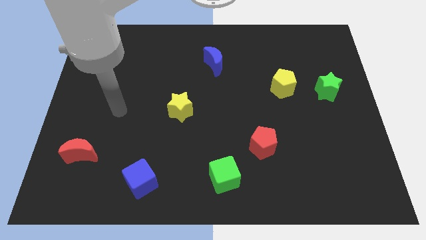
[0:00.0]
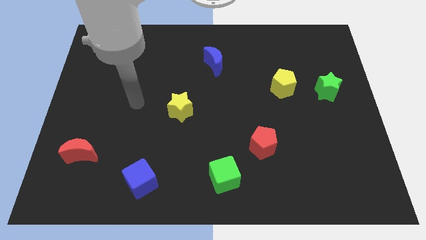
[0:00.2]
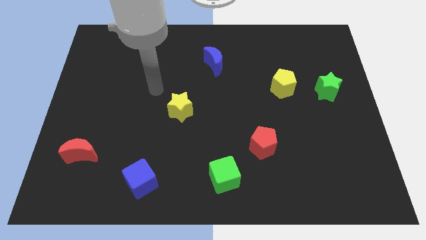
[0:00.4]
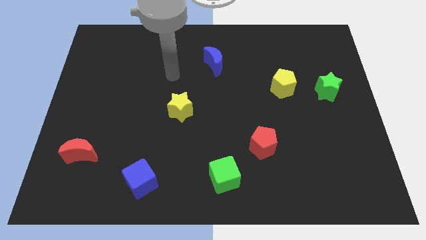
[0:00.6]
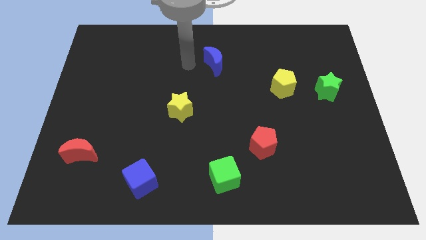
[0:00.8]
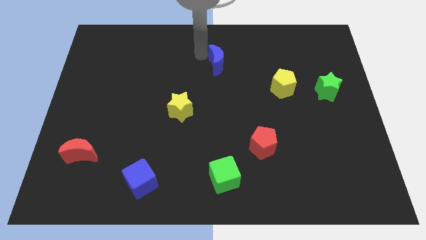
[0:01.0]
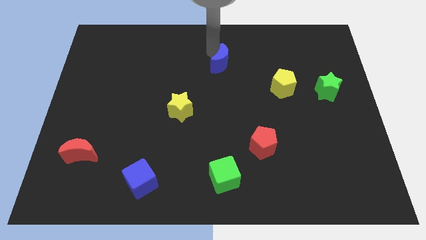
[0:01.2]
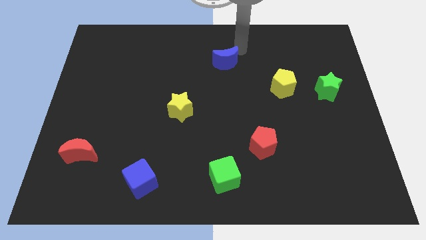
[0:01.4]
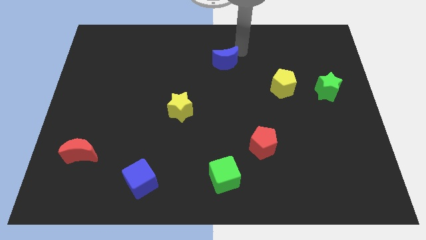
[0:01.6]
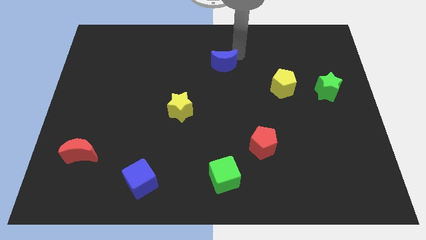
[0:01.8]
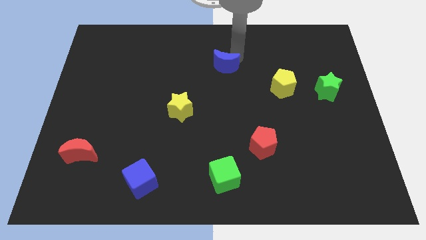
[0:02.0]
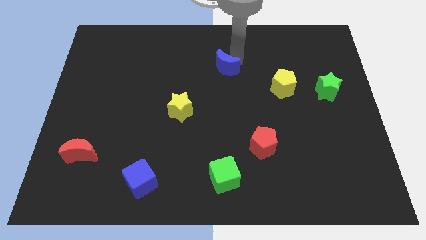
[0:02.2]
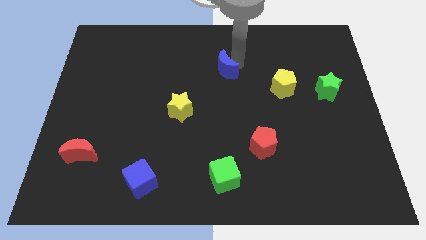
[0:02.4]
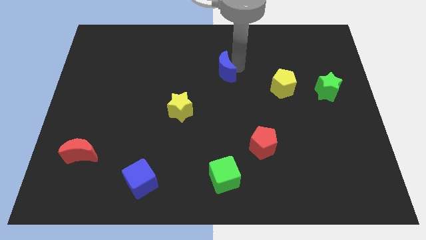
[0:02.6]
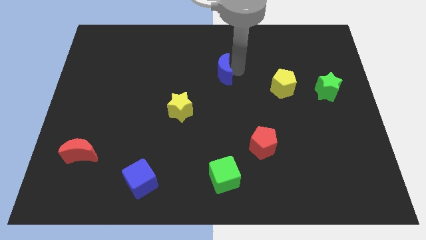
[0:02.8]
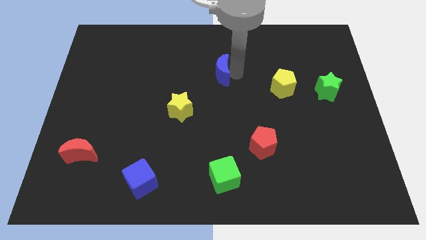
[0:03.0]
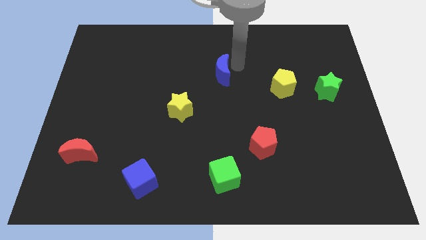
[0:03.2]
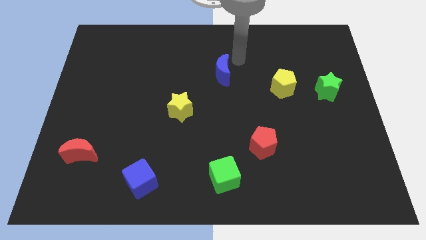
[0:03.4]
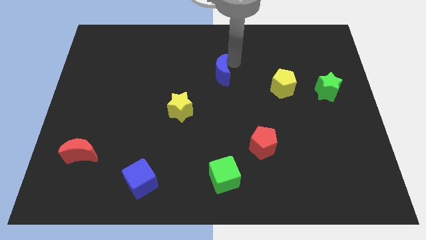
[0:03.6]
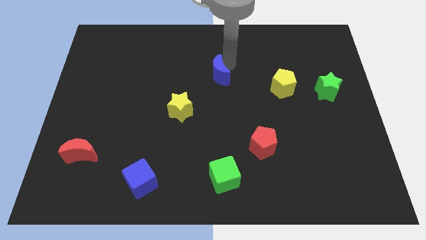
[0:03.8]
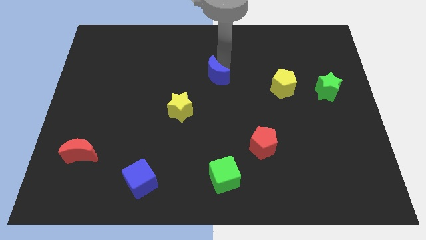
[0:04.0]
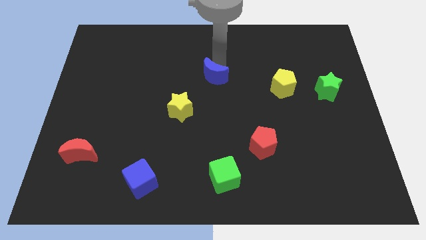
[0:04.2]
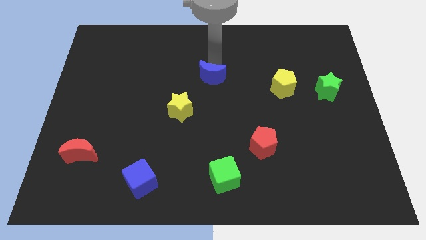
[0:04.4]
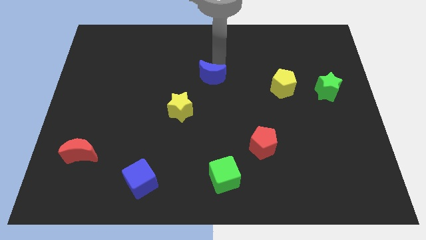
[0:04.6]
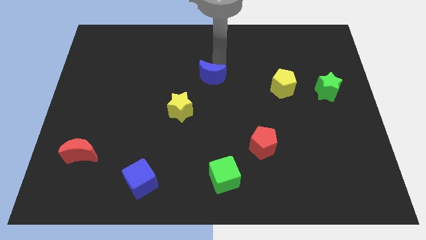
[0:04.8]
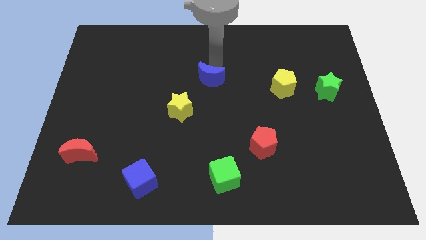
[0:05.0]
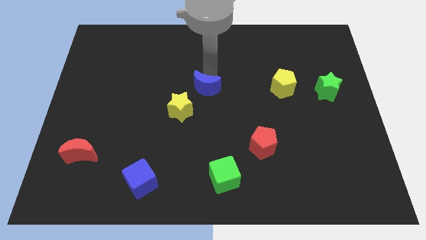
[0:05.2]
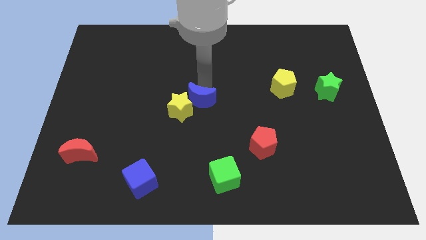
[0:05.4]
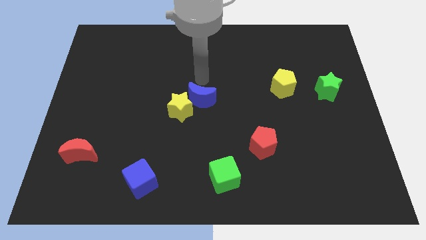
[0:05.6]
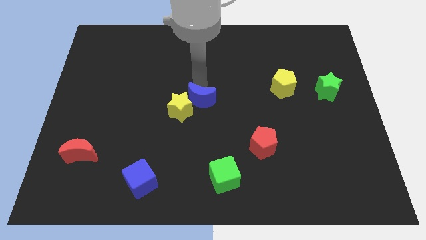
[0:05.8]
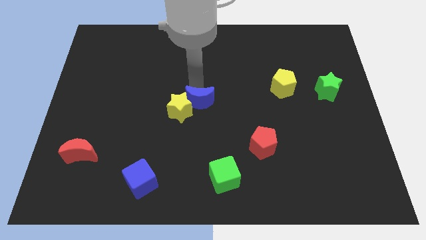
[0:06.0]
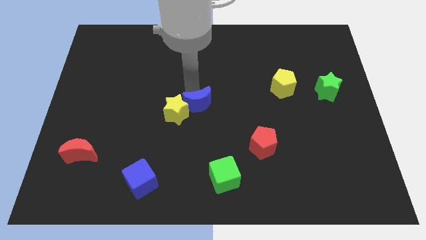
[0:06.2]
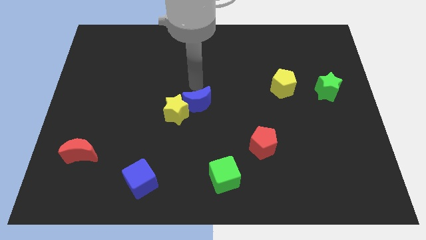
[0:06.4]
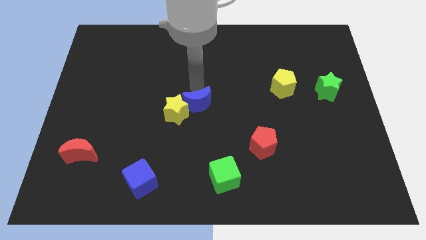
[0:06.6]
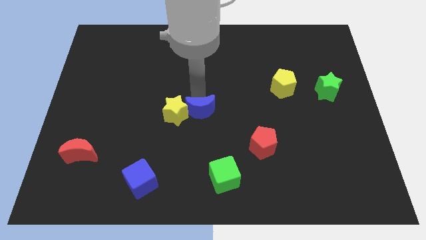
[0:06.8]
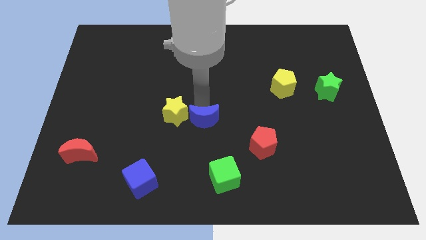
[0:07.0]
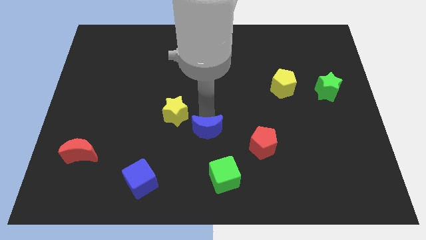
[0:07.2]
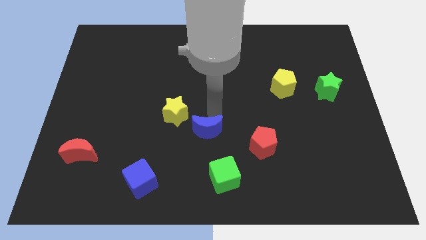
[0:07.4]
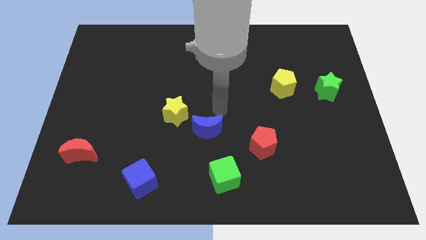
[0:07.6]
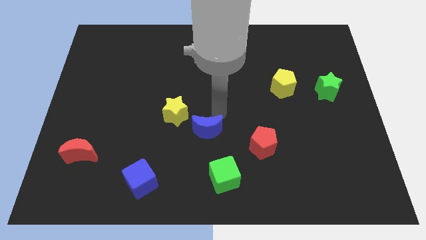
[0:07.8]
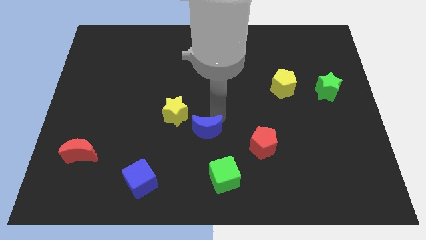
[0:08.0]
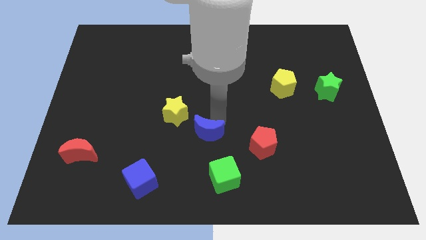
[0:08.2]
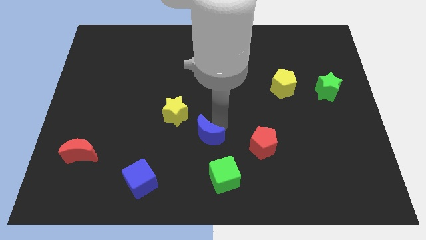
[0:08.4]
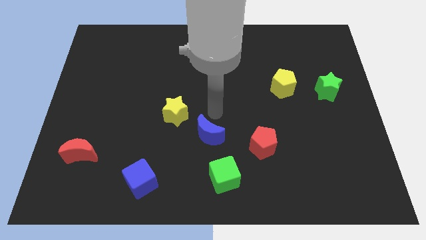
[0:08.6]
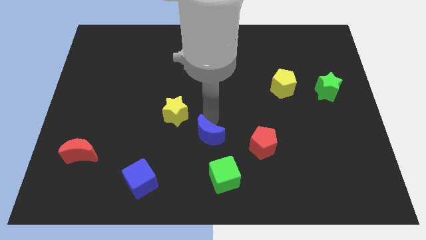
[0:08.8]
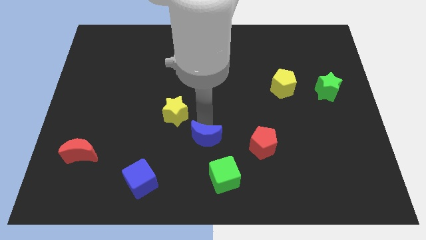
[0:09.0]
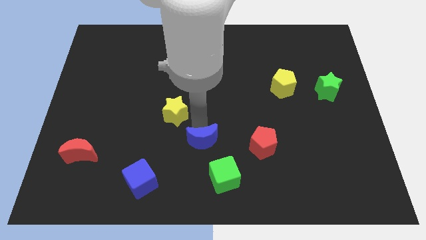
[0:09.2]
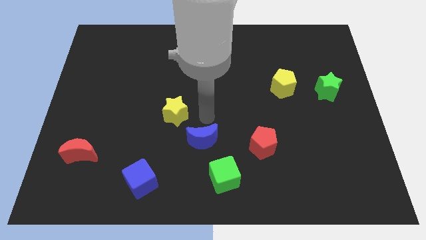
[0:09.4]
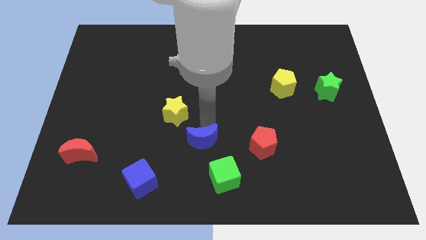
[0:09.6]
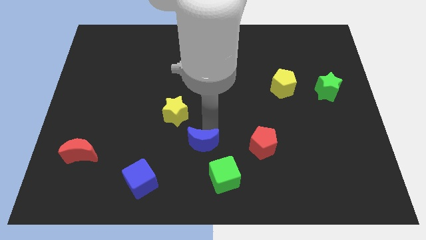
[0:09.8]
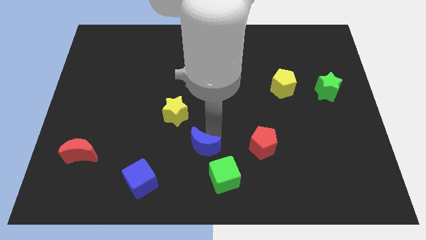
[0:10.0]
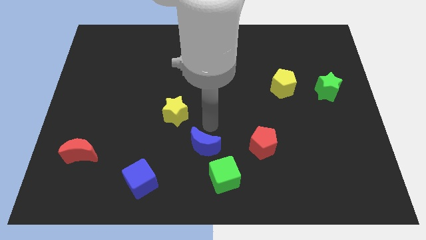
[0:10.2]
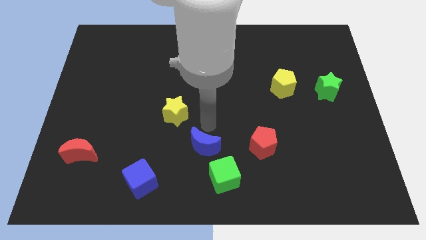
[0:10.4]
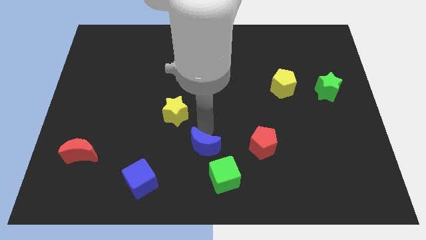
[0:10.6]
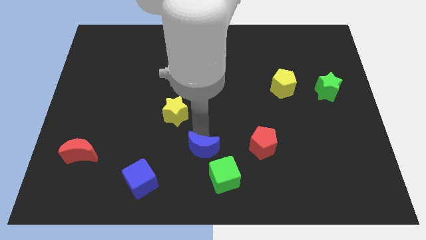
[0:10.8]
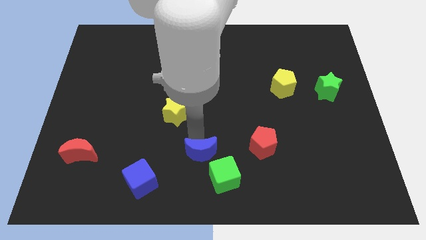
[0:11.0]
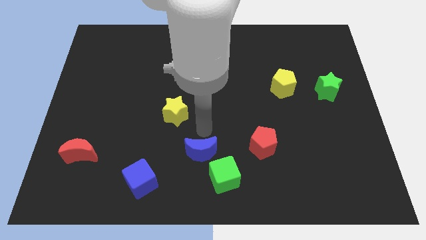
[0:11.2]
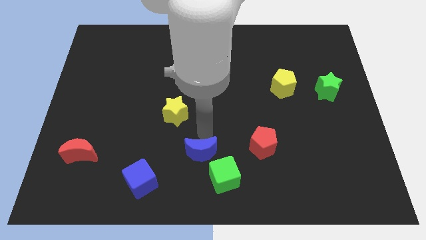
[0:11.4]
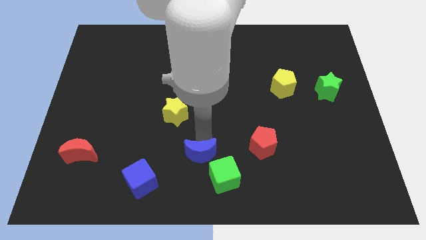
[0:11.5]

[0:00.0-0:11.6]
put the blue moon to the bottom side

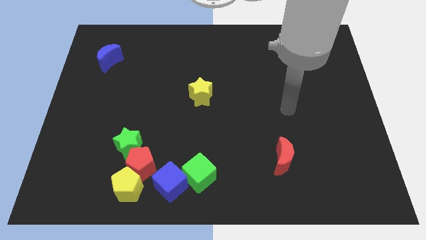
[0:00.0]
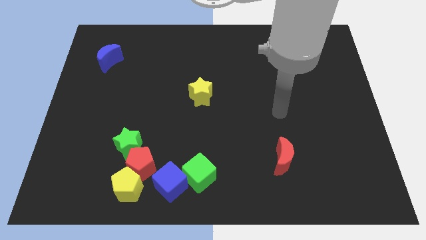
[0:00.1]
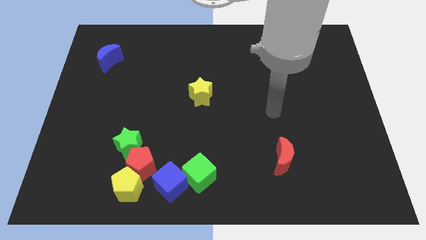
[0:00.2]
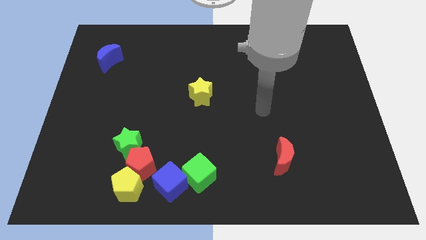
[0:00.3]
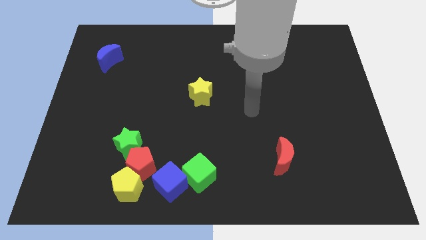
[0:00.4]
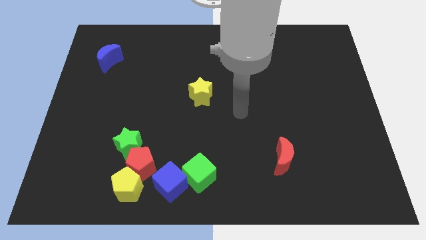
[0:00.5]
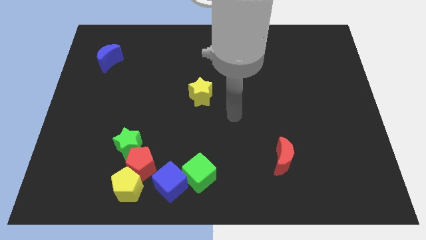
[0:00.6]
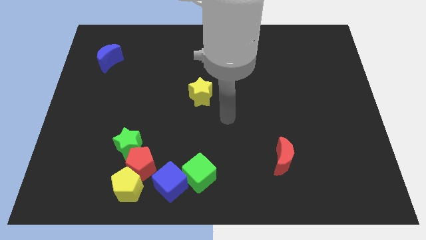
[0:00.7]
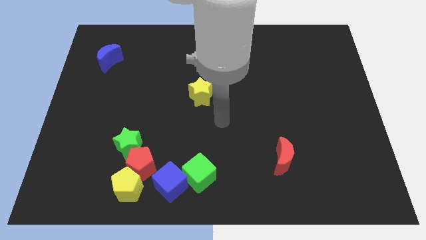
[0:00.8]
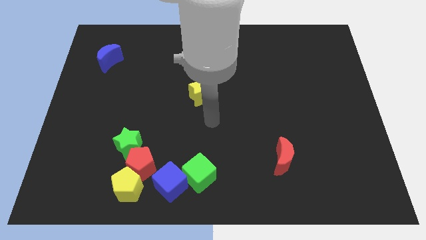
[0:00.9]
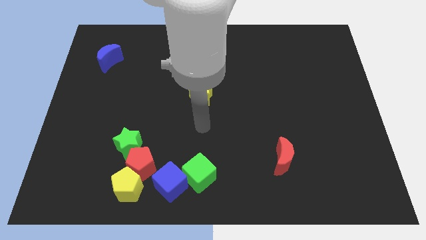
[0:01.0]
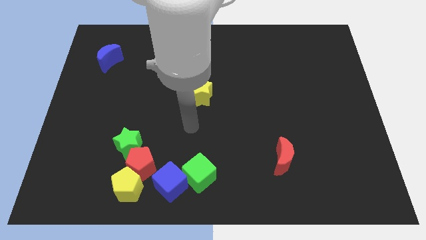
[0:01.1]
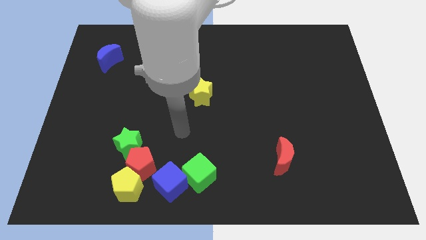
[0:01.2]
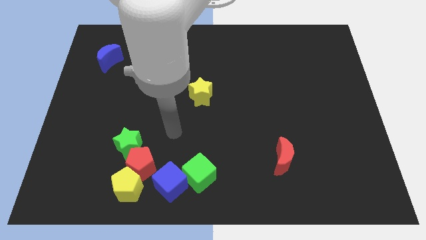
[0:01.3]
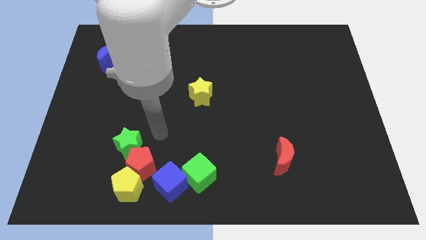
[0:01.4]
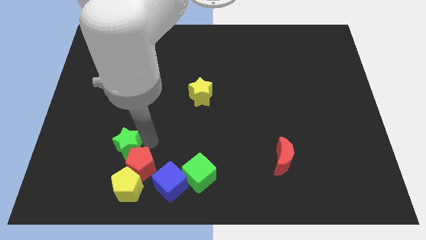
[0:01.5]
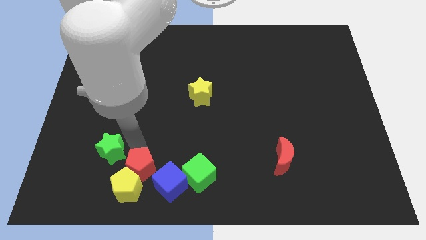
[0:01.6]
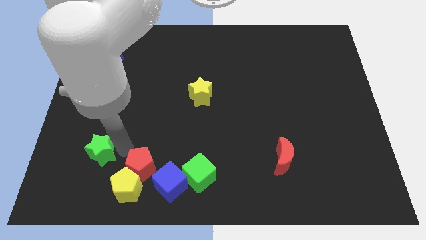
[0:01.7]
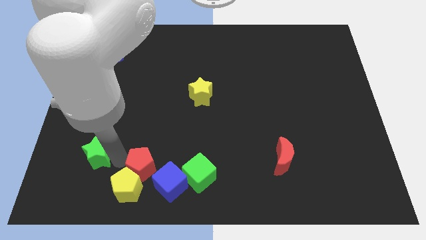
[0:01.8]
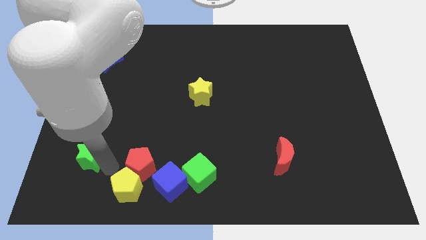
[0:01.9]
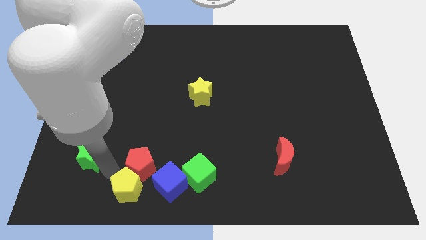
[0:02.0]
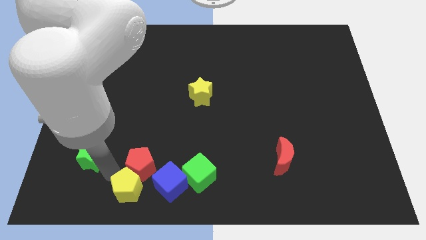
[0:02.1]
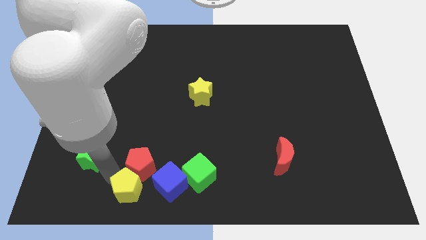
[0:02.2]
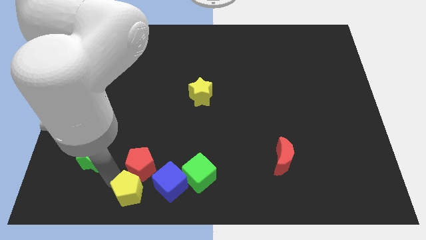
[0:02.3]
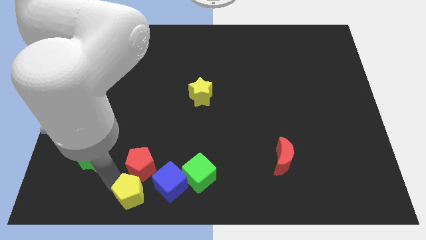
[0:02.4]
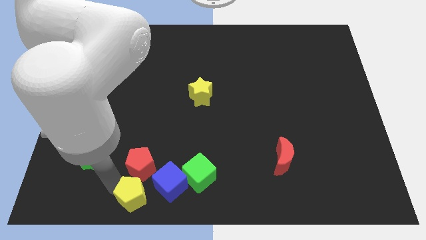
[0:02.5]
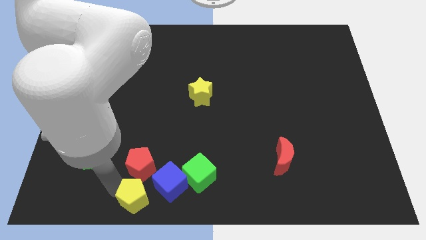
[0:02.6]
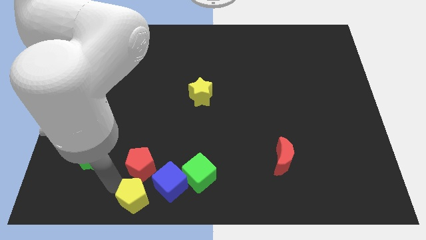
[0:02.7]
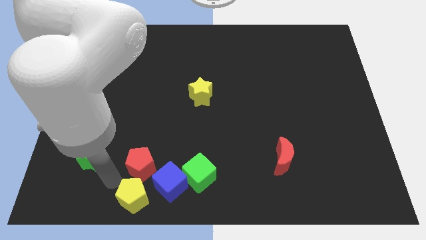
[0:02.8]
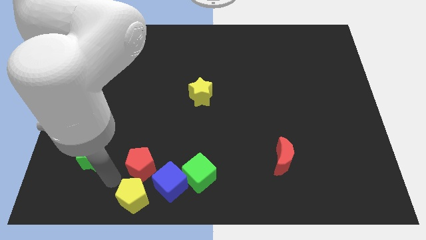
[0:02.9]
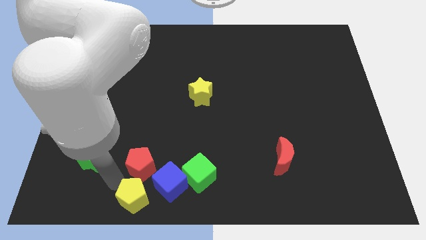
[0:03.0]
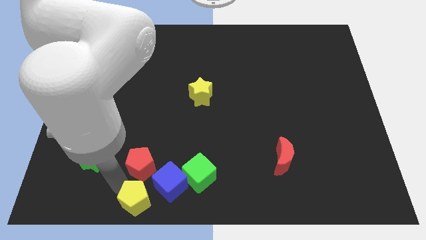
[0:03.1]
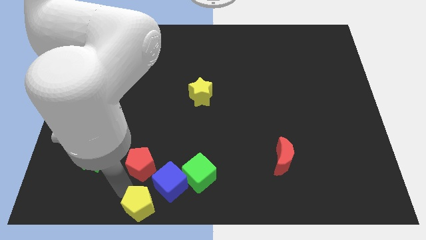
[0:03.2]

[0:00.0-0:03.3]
put the yellow pentagon to the bottom
